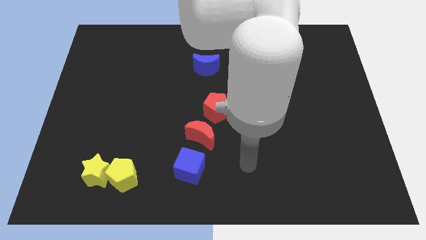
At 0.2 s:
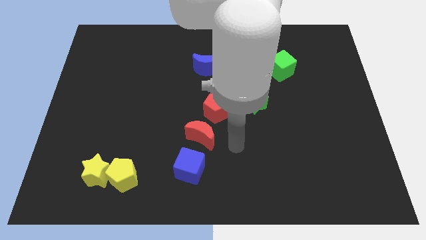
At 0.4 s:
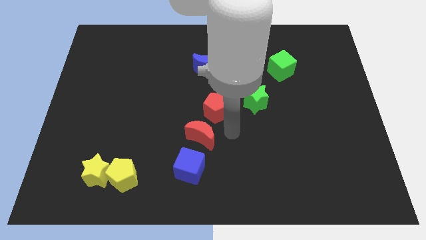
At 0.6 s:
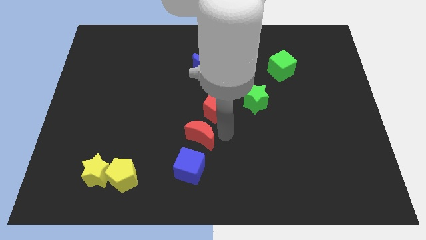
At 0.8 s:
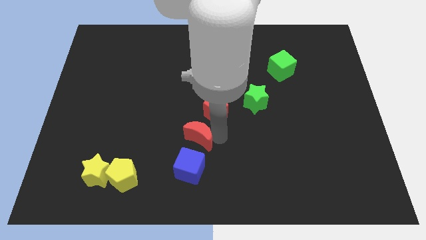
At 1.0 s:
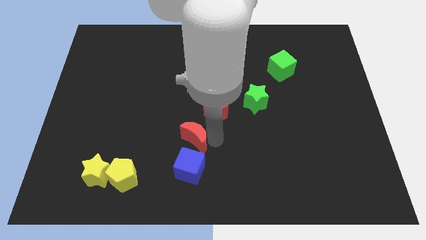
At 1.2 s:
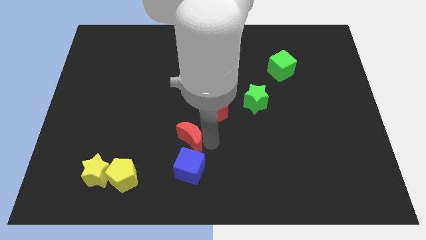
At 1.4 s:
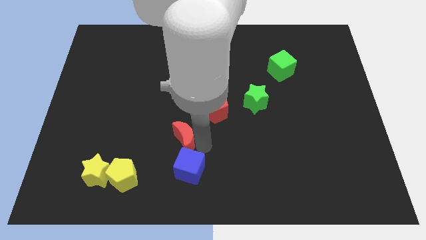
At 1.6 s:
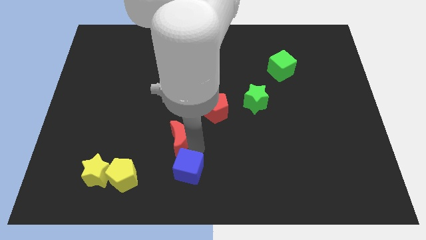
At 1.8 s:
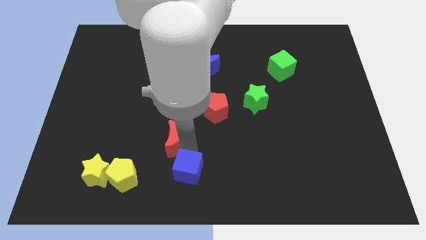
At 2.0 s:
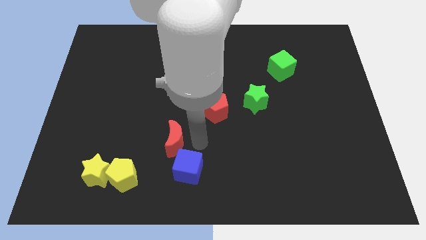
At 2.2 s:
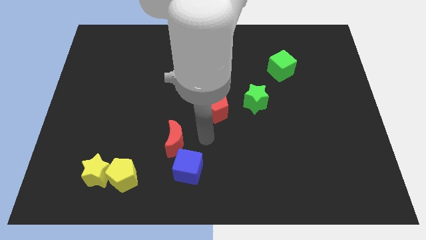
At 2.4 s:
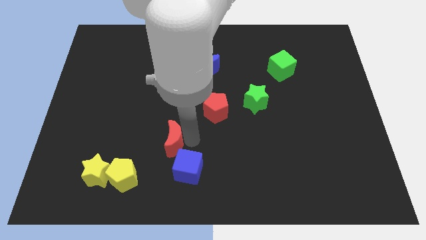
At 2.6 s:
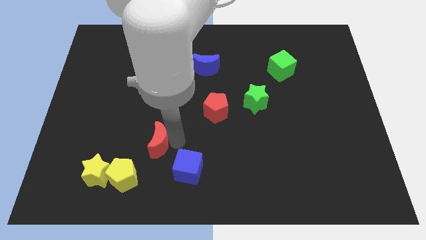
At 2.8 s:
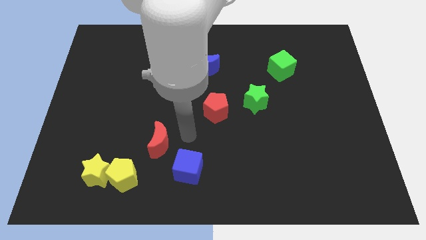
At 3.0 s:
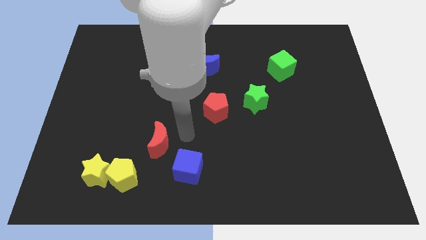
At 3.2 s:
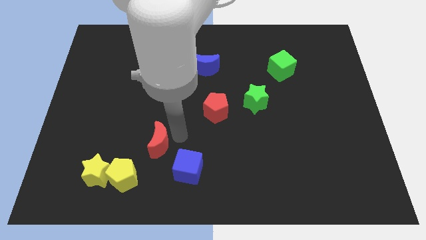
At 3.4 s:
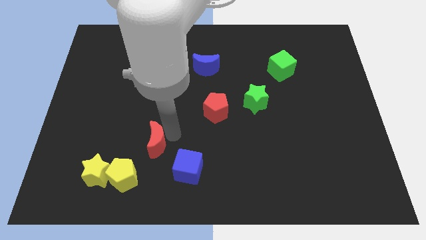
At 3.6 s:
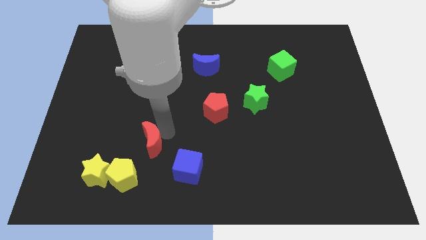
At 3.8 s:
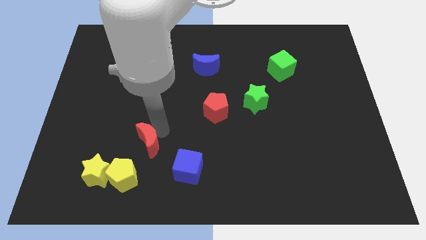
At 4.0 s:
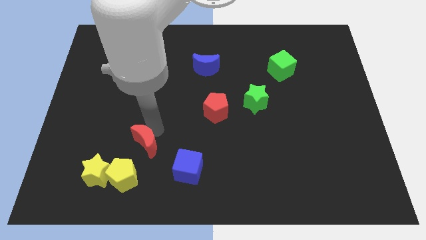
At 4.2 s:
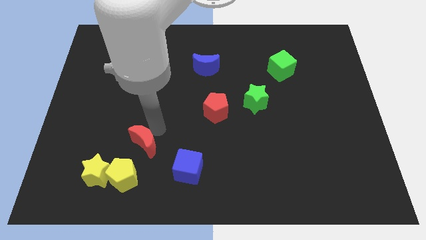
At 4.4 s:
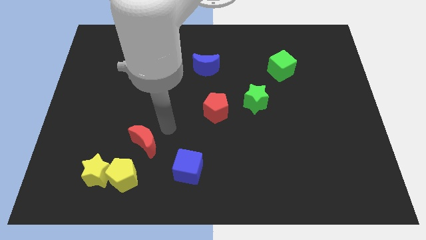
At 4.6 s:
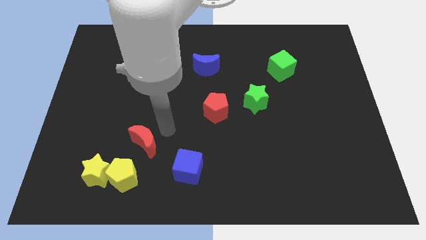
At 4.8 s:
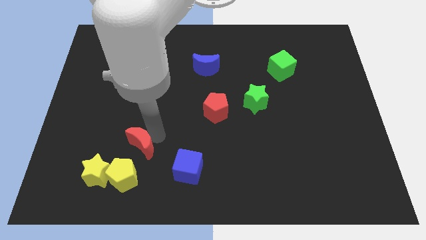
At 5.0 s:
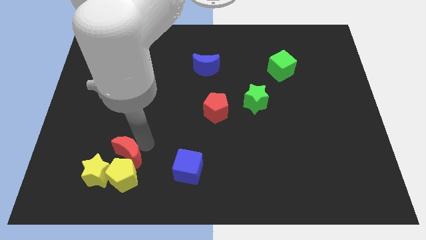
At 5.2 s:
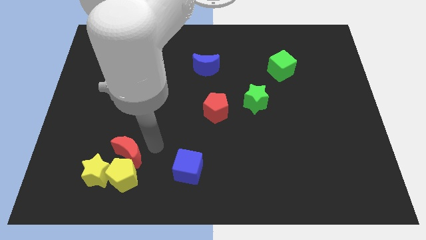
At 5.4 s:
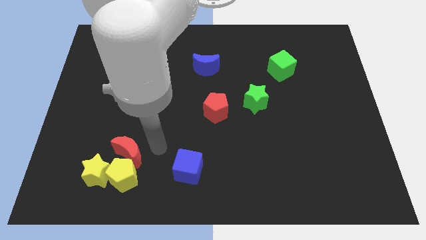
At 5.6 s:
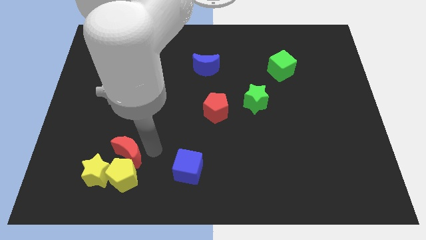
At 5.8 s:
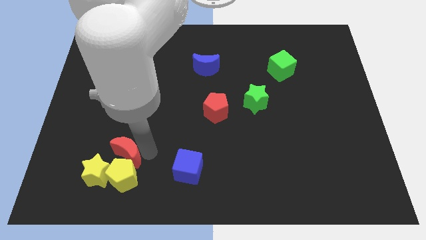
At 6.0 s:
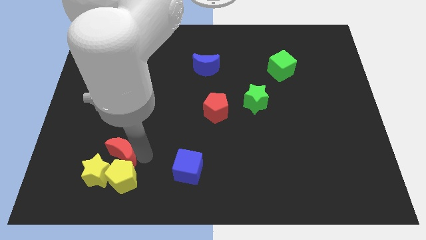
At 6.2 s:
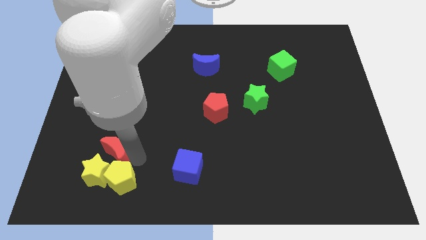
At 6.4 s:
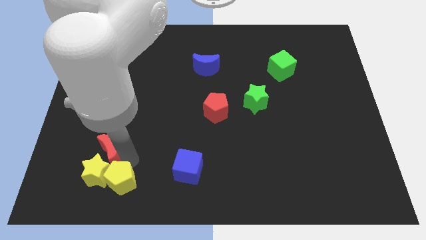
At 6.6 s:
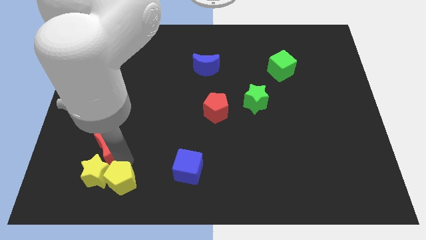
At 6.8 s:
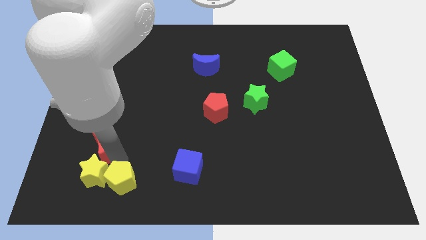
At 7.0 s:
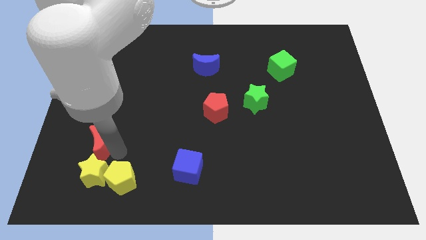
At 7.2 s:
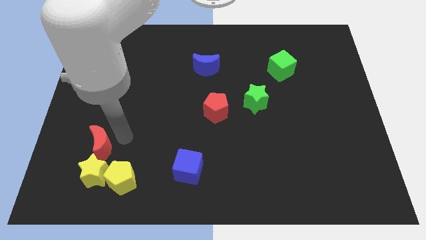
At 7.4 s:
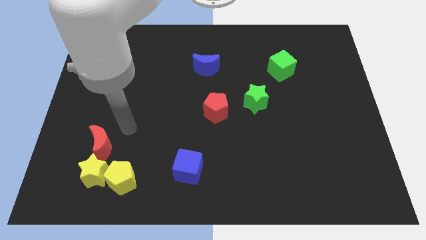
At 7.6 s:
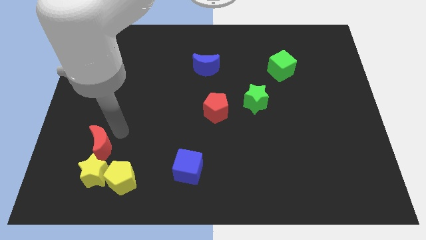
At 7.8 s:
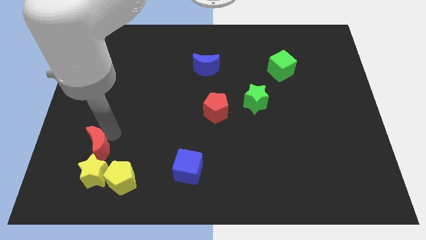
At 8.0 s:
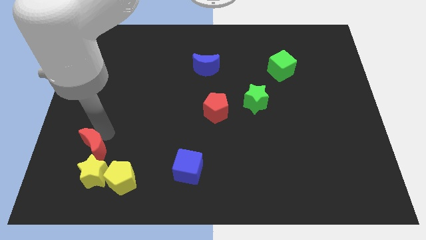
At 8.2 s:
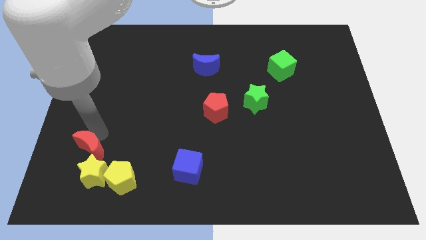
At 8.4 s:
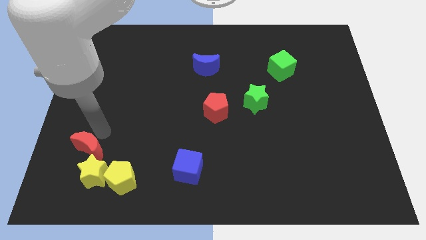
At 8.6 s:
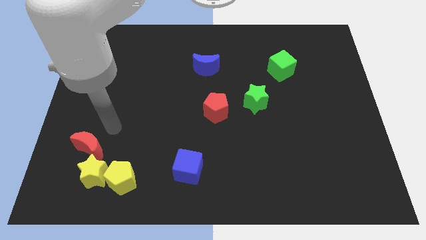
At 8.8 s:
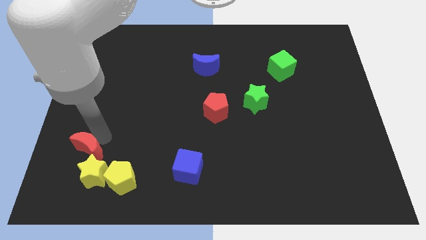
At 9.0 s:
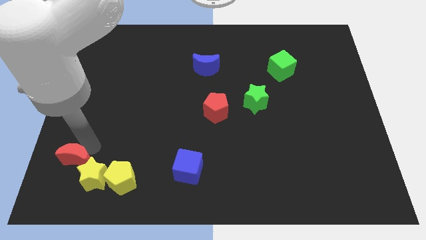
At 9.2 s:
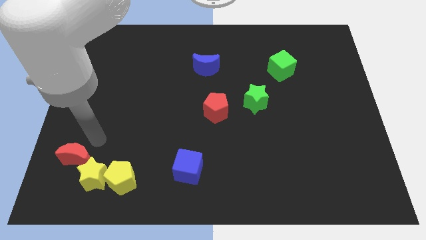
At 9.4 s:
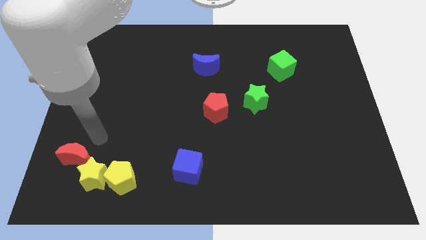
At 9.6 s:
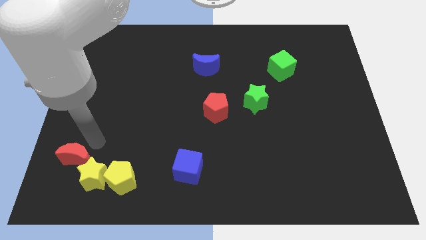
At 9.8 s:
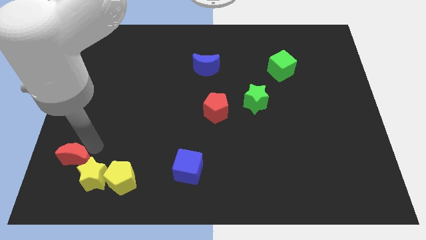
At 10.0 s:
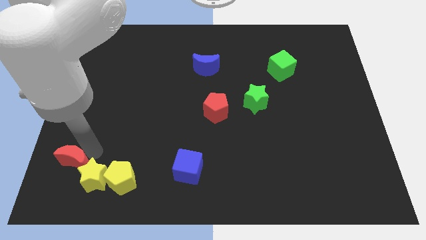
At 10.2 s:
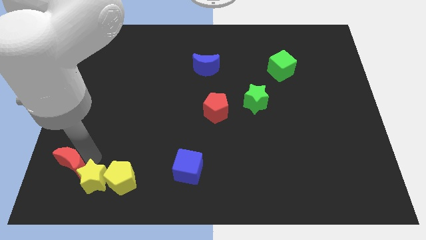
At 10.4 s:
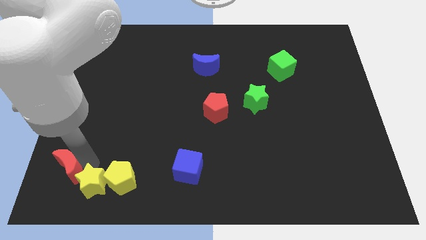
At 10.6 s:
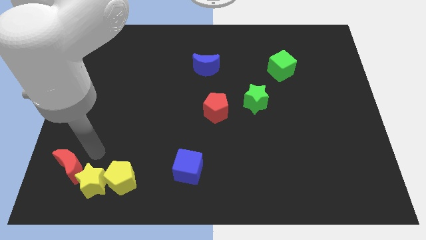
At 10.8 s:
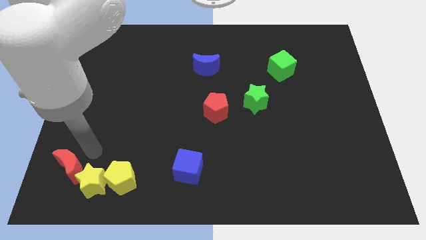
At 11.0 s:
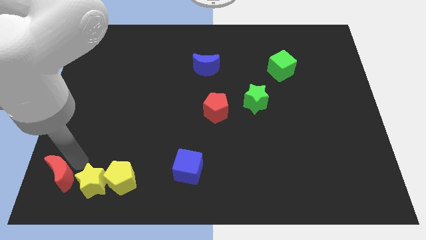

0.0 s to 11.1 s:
move the red moon to the lower left corner

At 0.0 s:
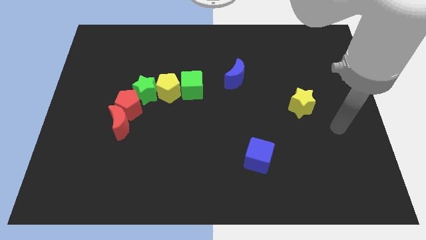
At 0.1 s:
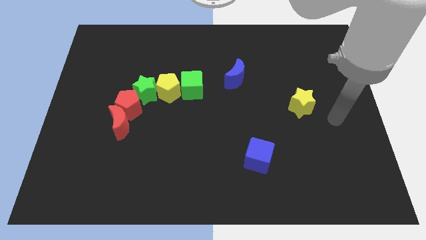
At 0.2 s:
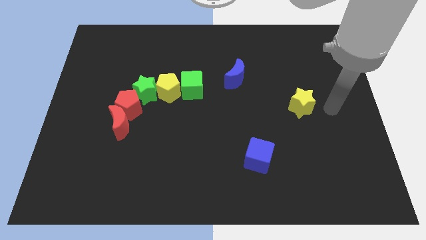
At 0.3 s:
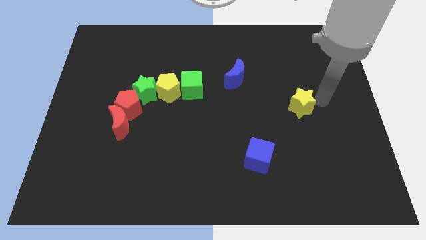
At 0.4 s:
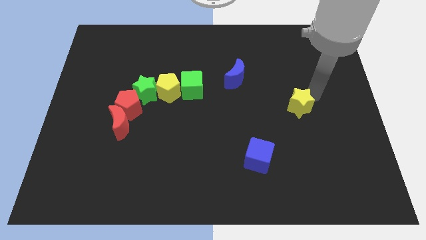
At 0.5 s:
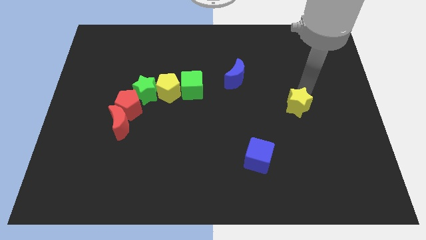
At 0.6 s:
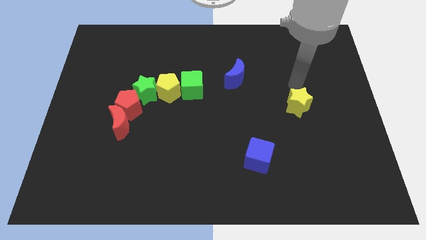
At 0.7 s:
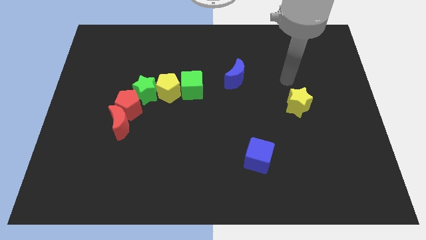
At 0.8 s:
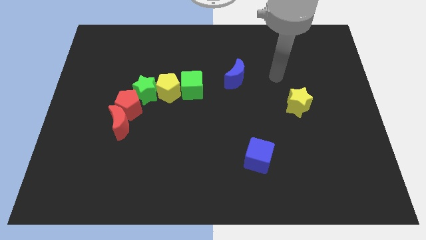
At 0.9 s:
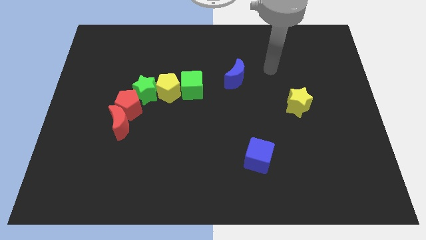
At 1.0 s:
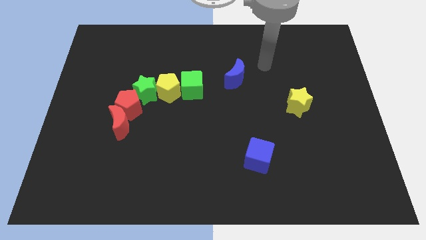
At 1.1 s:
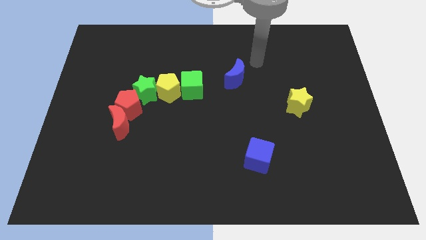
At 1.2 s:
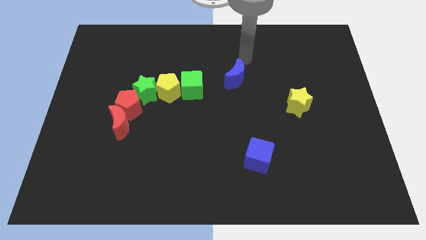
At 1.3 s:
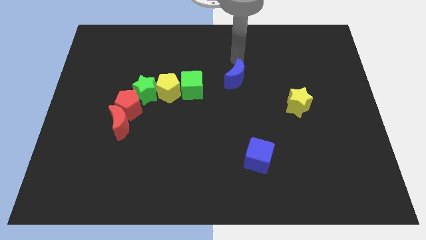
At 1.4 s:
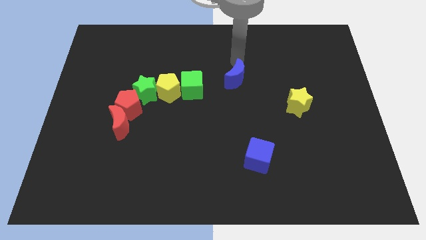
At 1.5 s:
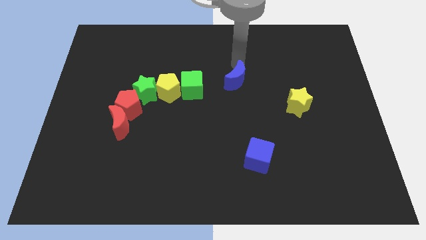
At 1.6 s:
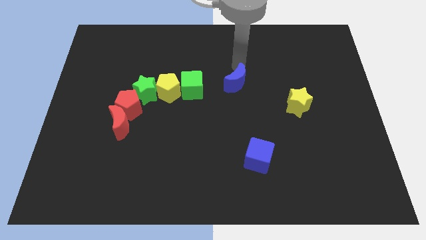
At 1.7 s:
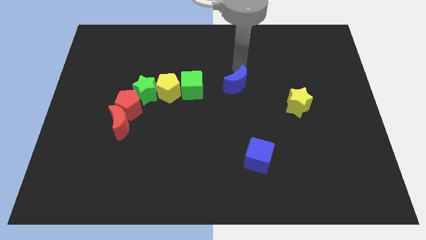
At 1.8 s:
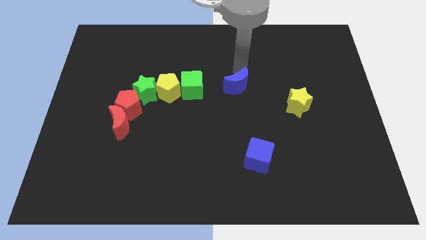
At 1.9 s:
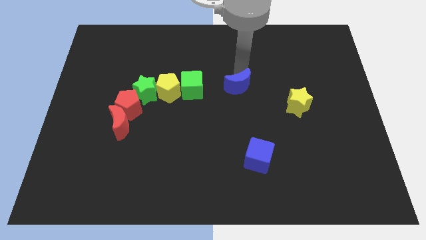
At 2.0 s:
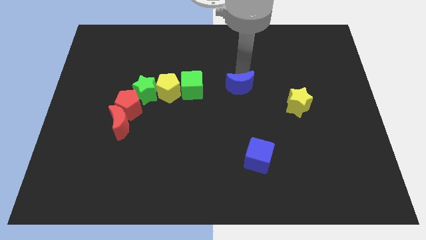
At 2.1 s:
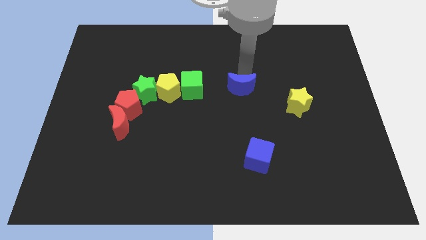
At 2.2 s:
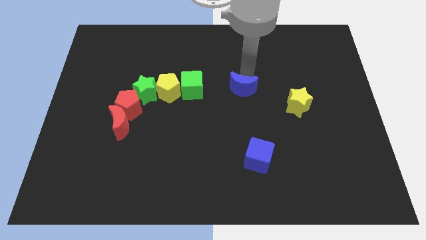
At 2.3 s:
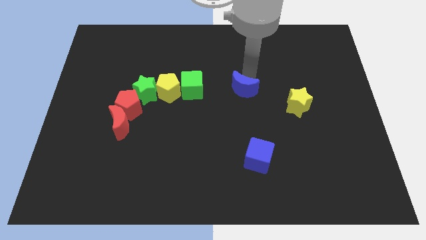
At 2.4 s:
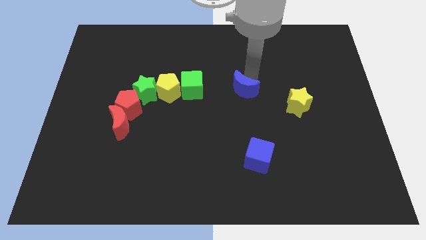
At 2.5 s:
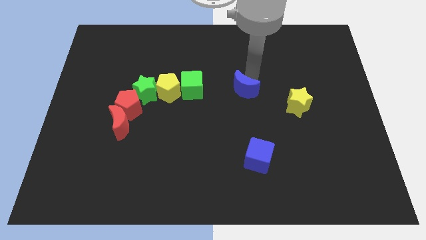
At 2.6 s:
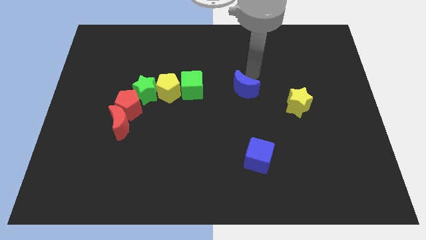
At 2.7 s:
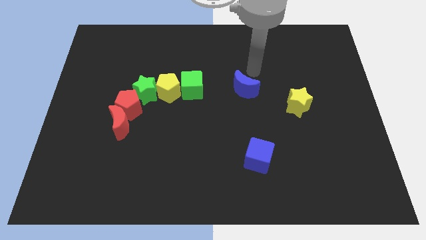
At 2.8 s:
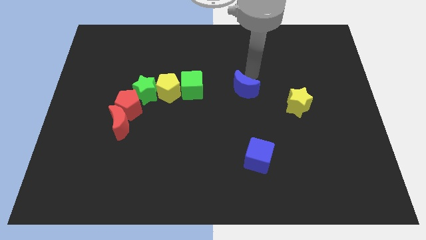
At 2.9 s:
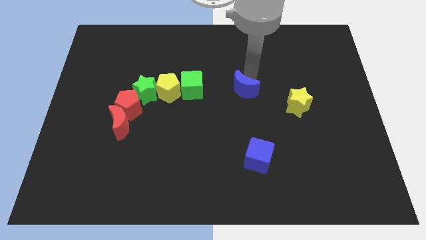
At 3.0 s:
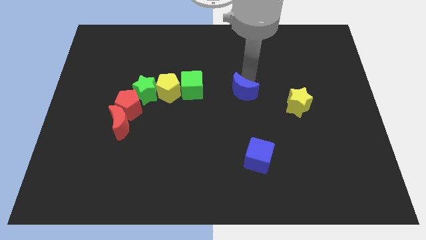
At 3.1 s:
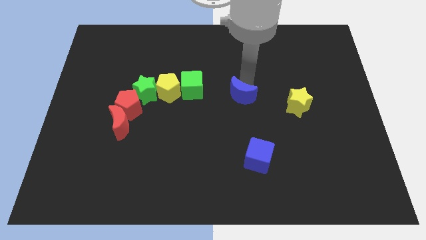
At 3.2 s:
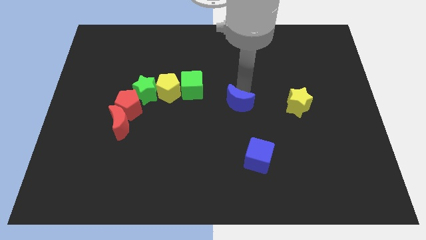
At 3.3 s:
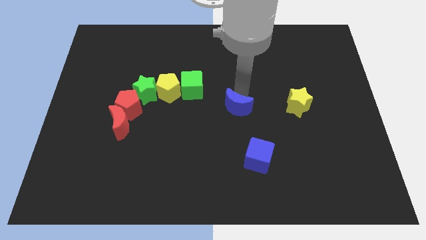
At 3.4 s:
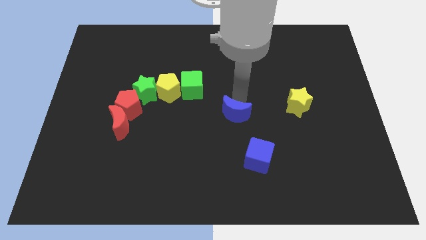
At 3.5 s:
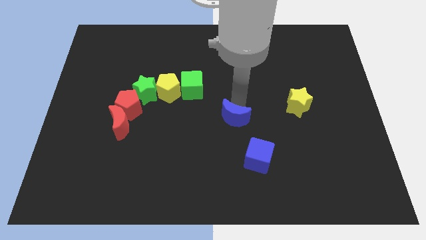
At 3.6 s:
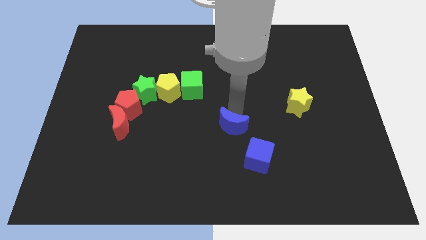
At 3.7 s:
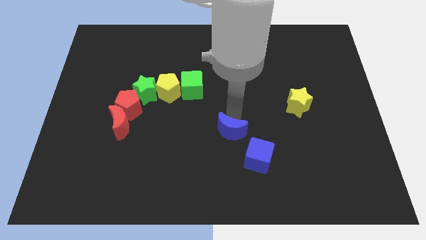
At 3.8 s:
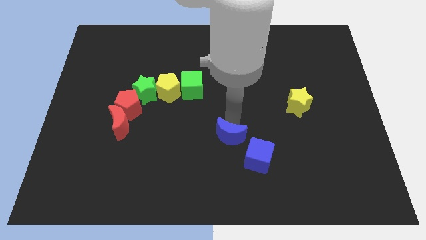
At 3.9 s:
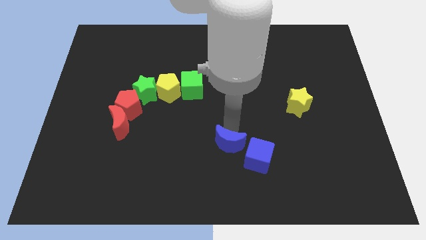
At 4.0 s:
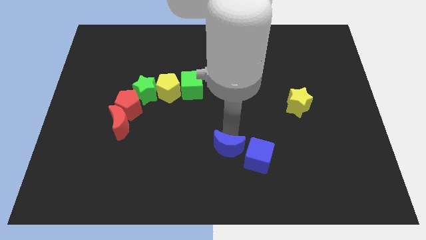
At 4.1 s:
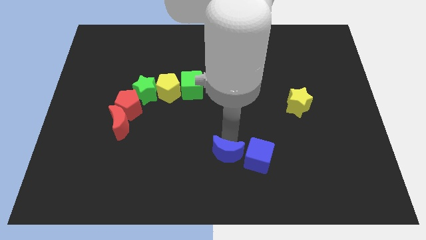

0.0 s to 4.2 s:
put the blue moon to the bottom side
